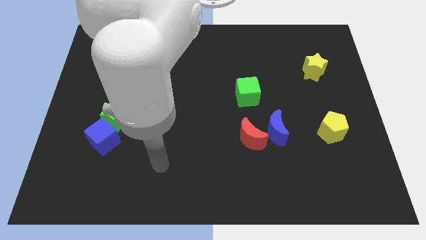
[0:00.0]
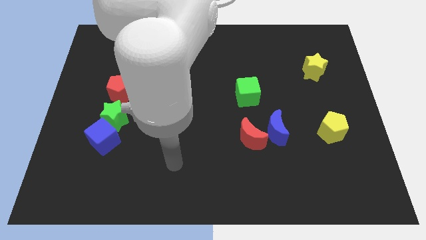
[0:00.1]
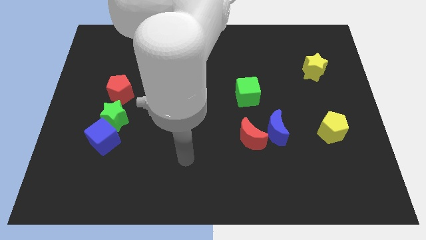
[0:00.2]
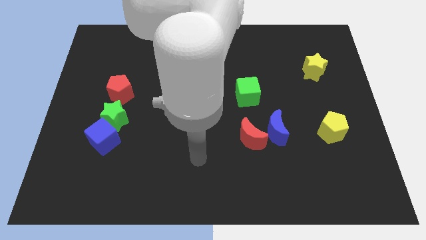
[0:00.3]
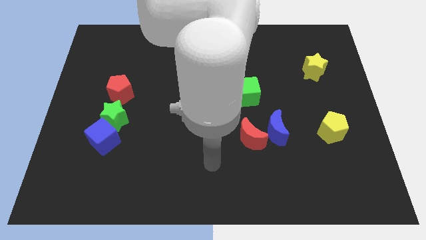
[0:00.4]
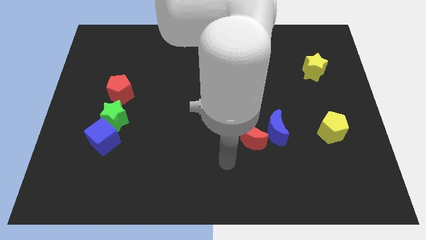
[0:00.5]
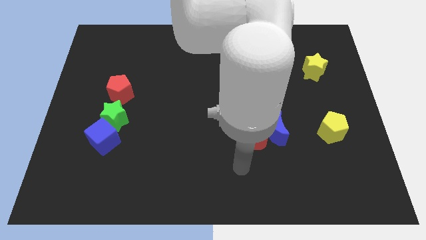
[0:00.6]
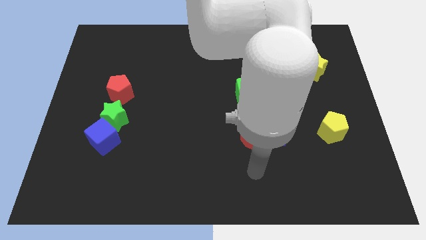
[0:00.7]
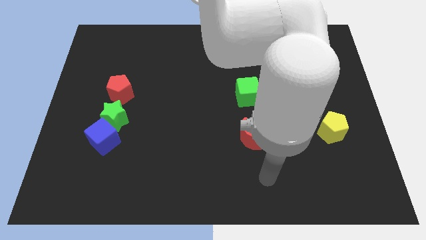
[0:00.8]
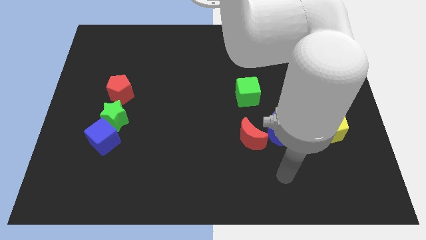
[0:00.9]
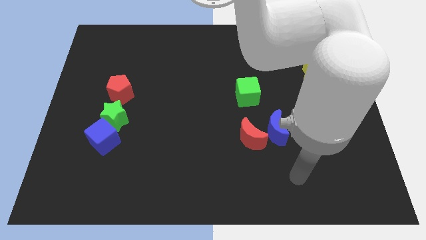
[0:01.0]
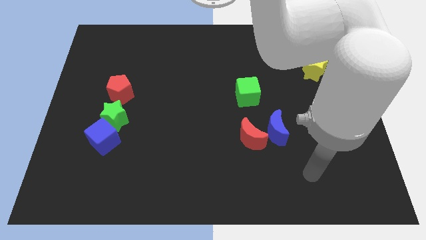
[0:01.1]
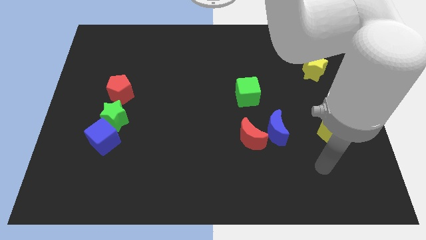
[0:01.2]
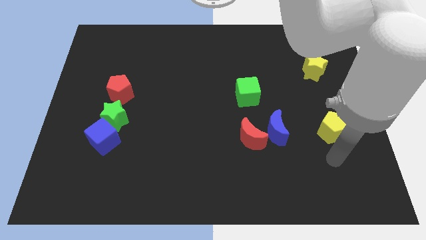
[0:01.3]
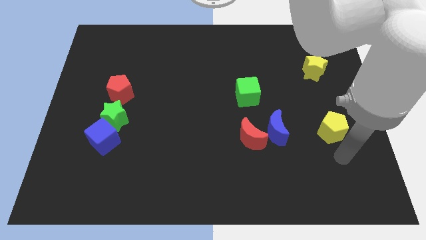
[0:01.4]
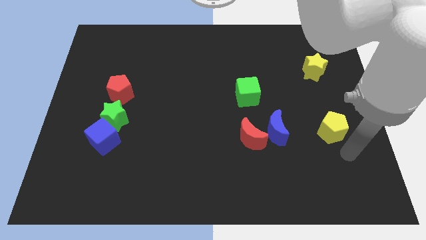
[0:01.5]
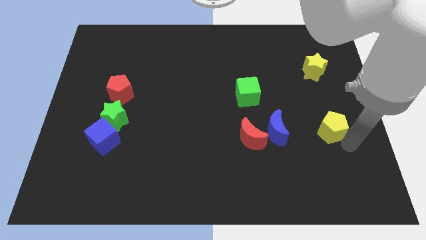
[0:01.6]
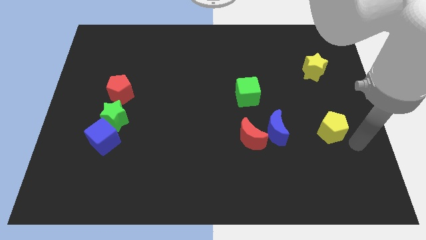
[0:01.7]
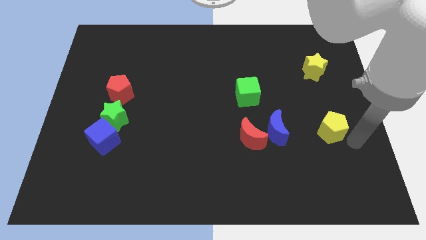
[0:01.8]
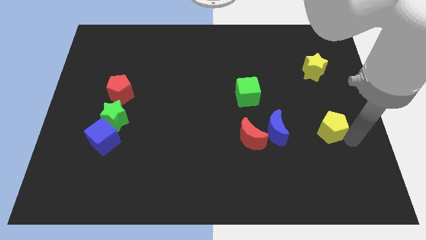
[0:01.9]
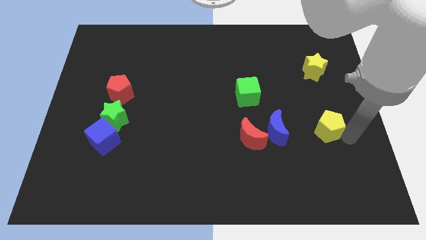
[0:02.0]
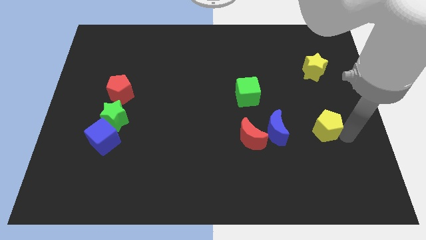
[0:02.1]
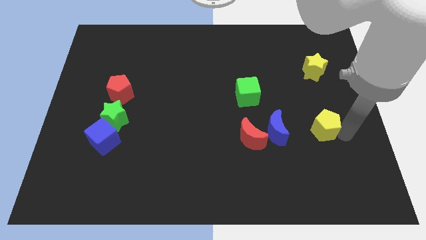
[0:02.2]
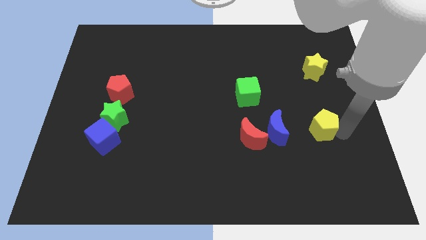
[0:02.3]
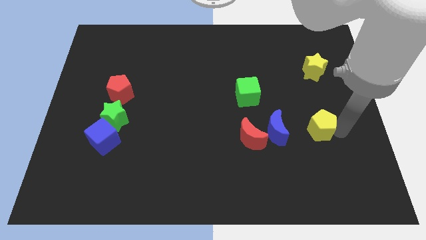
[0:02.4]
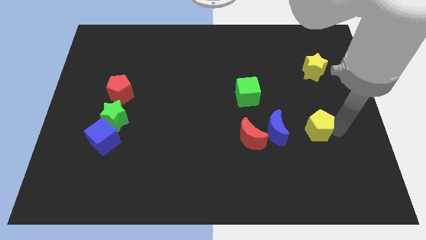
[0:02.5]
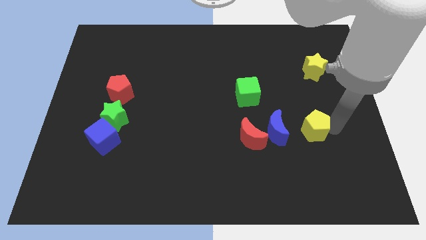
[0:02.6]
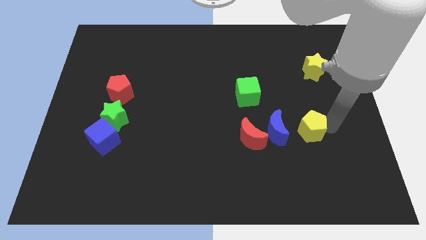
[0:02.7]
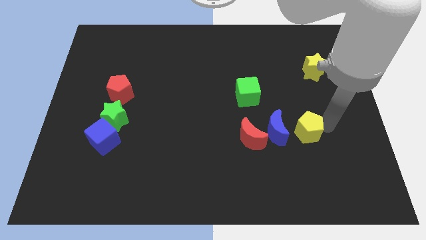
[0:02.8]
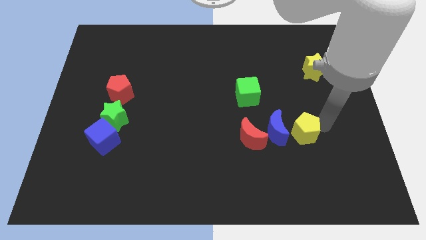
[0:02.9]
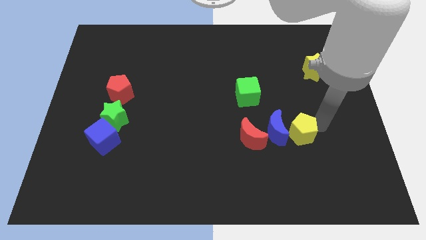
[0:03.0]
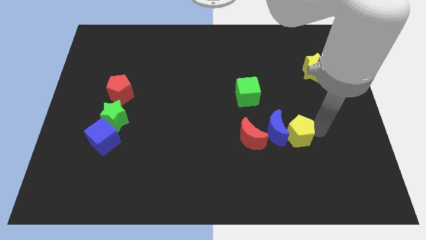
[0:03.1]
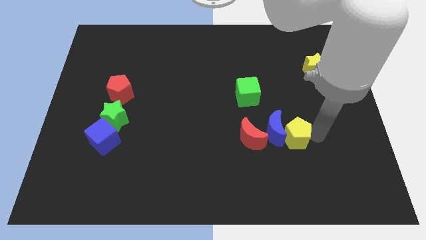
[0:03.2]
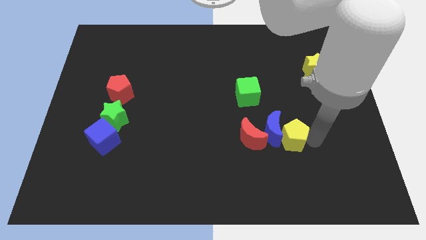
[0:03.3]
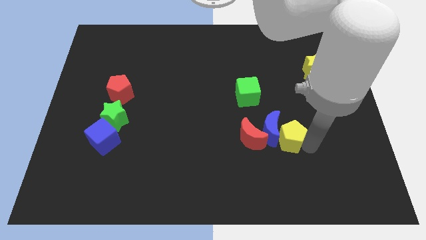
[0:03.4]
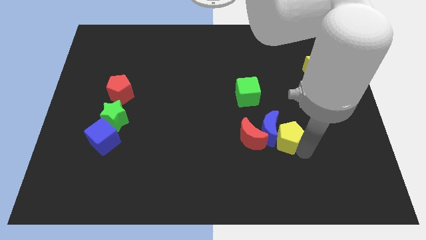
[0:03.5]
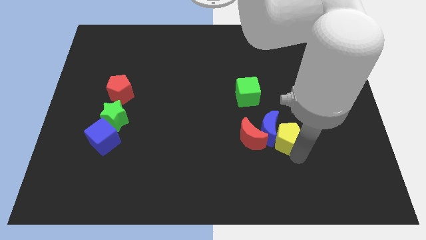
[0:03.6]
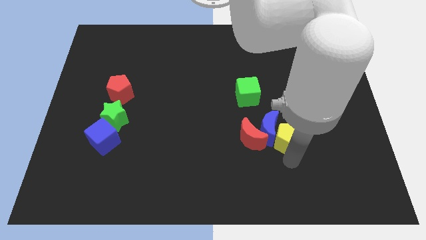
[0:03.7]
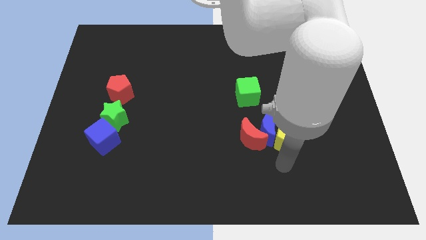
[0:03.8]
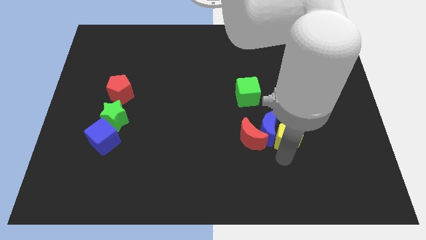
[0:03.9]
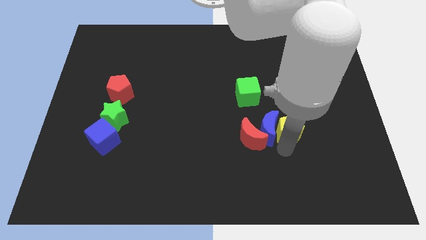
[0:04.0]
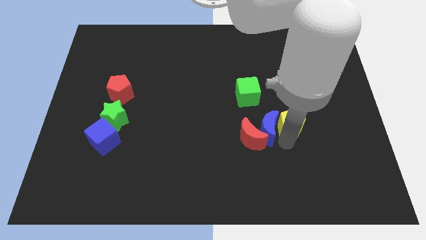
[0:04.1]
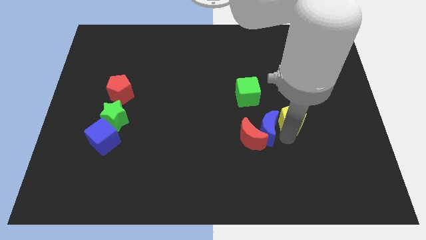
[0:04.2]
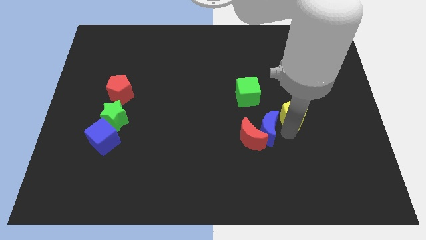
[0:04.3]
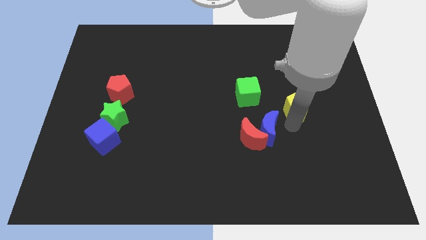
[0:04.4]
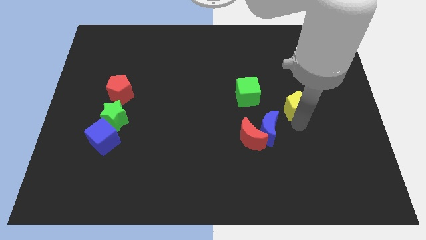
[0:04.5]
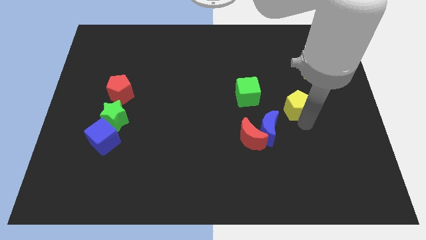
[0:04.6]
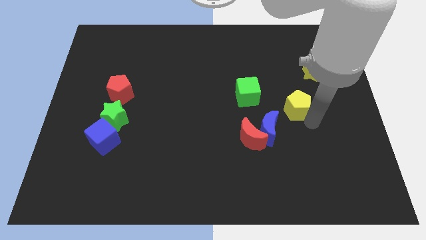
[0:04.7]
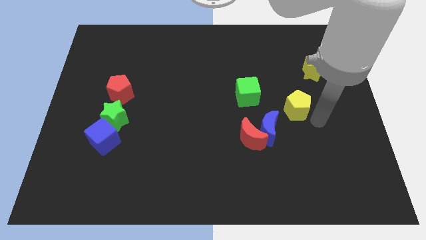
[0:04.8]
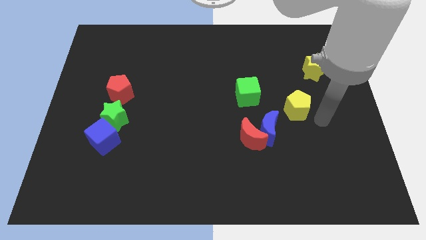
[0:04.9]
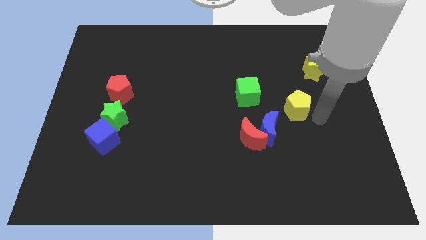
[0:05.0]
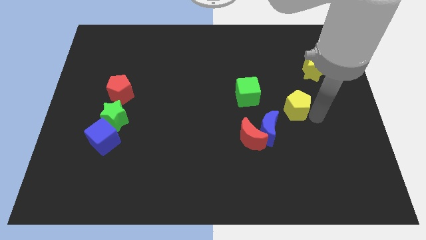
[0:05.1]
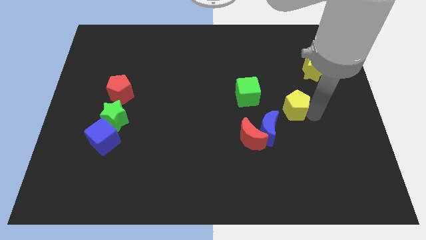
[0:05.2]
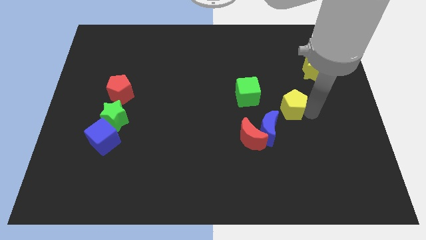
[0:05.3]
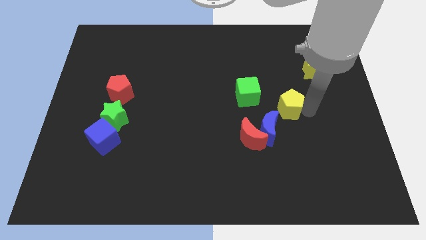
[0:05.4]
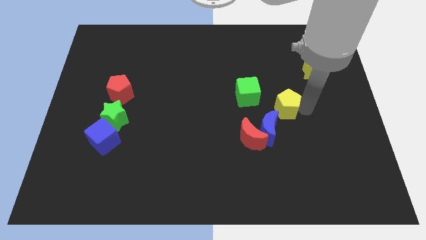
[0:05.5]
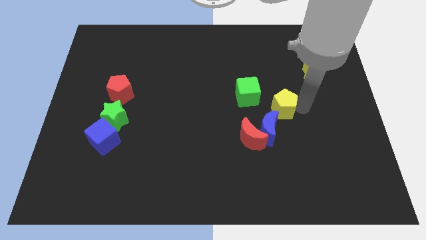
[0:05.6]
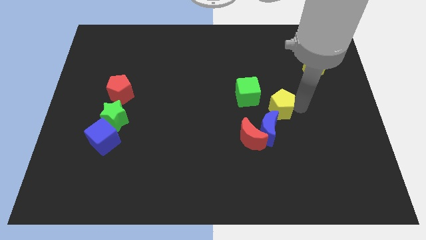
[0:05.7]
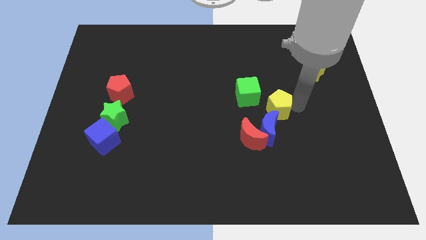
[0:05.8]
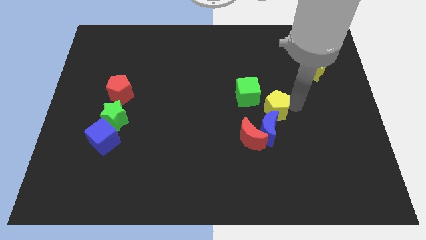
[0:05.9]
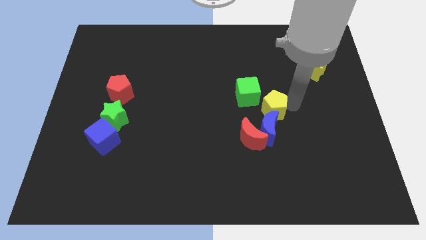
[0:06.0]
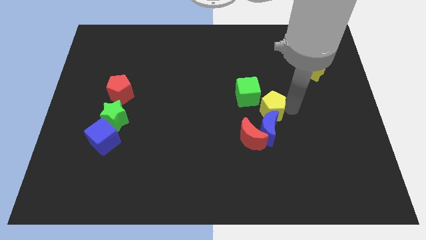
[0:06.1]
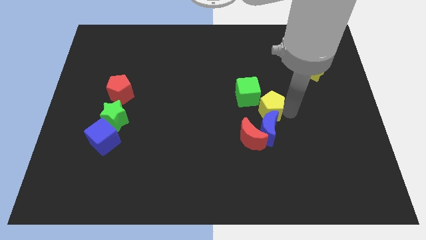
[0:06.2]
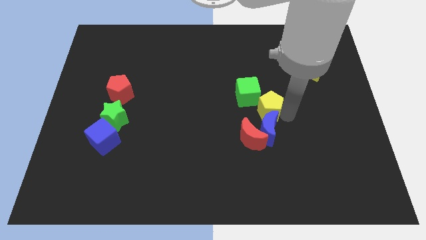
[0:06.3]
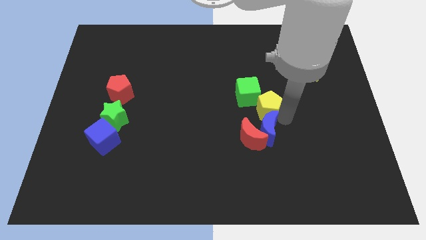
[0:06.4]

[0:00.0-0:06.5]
put the yellow pentagon close to the green cube

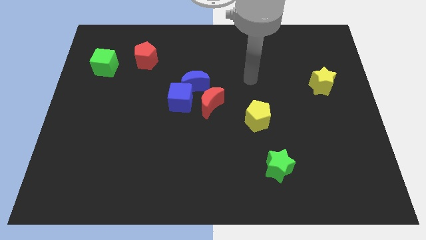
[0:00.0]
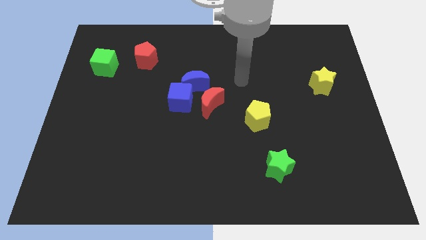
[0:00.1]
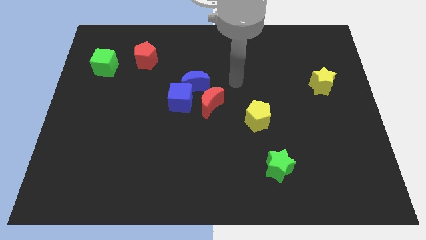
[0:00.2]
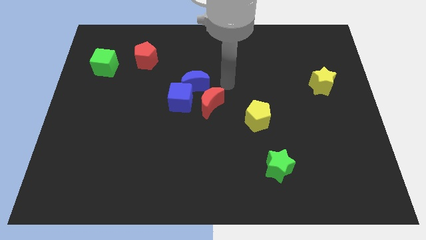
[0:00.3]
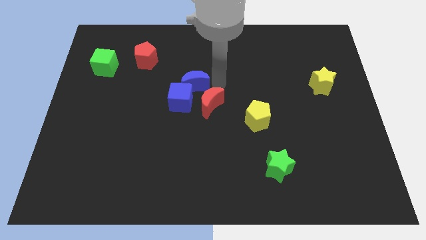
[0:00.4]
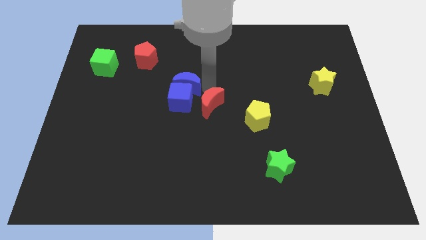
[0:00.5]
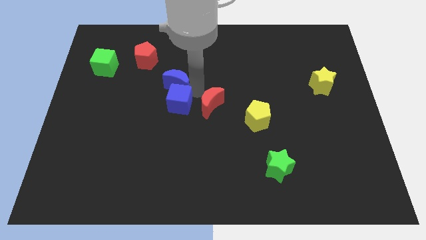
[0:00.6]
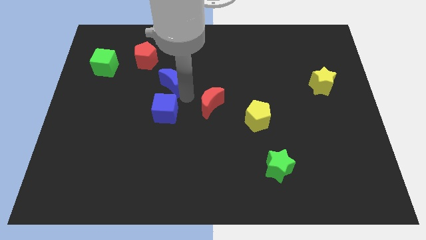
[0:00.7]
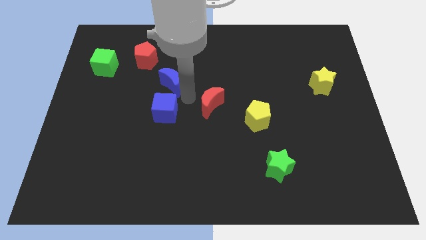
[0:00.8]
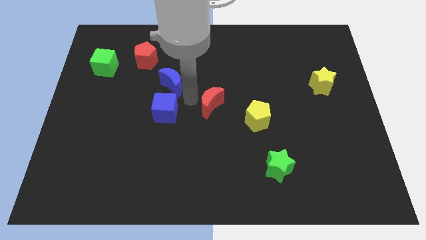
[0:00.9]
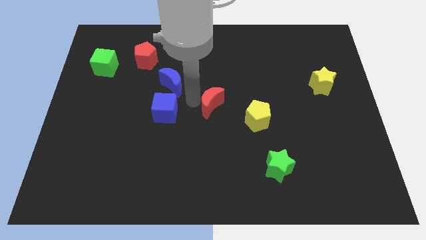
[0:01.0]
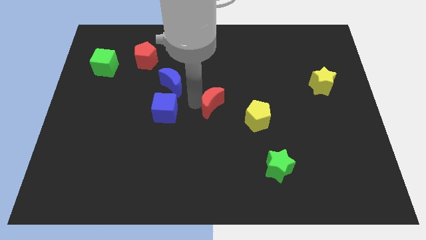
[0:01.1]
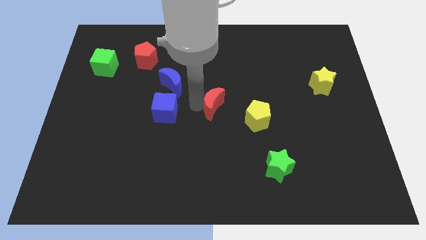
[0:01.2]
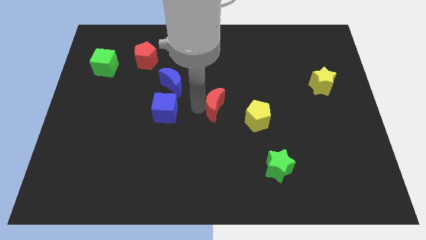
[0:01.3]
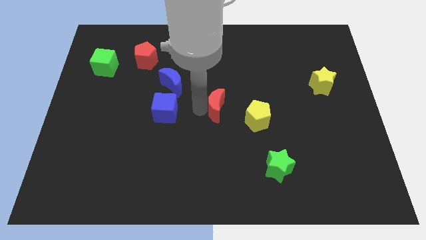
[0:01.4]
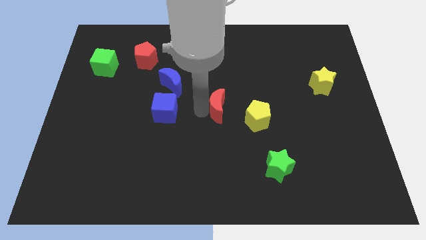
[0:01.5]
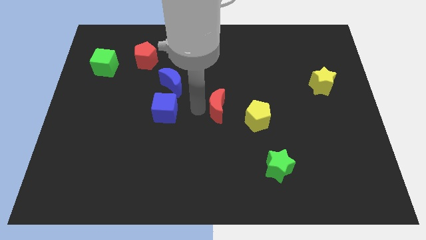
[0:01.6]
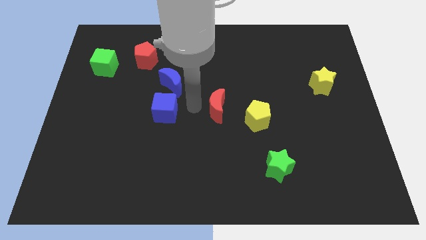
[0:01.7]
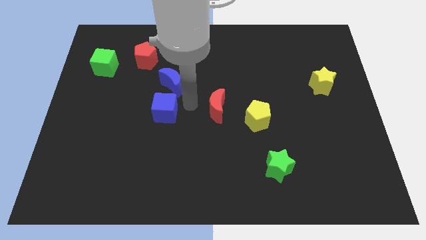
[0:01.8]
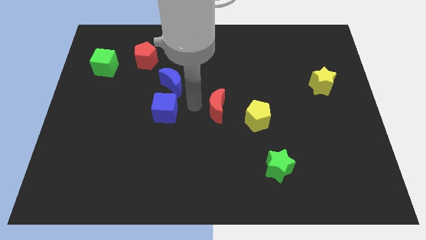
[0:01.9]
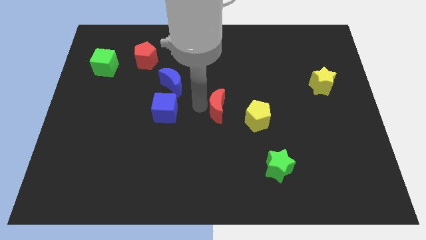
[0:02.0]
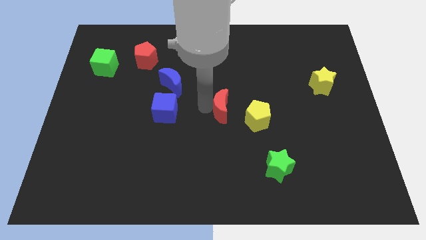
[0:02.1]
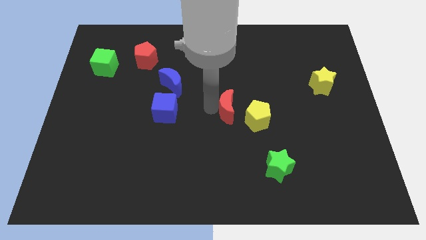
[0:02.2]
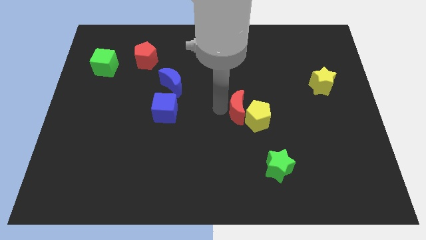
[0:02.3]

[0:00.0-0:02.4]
push the red moon towards the yellow pentagon
